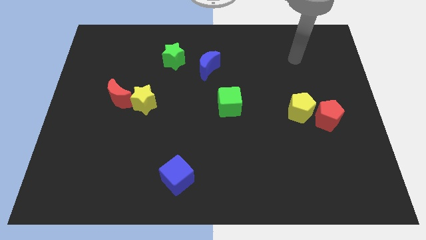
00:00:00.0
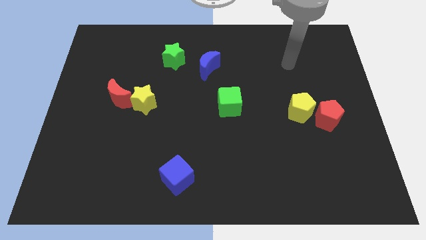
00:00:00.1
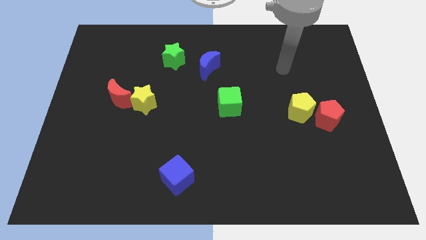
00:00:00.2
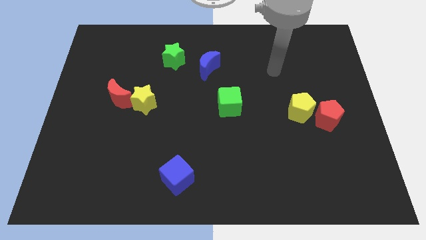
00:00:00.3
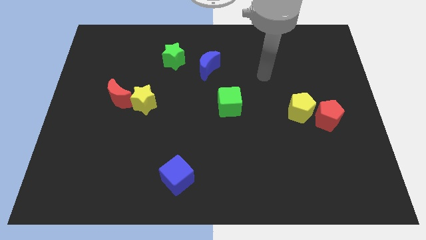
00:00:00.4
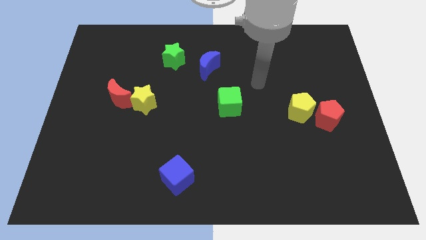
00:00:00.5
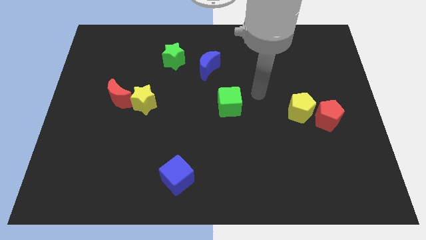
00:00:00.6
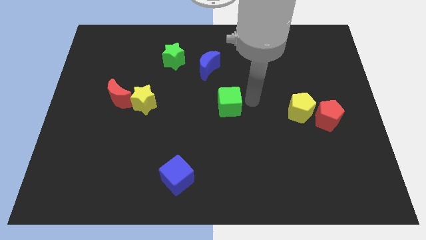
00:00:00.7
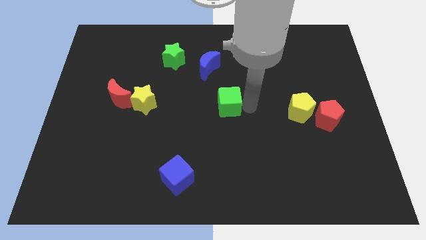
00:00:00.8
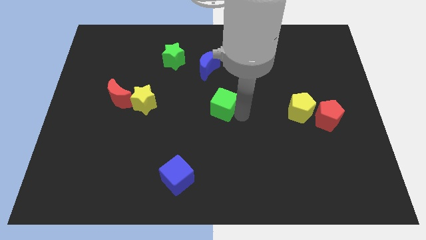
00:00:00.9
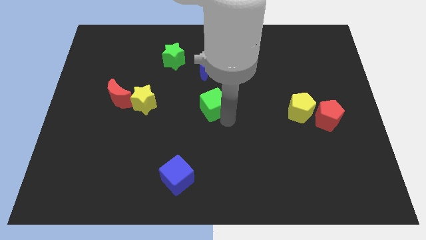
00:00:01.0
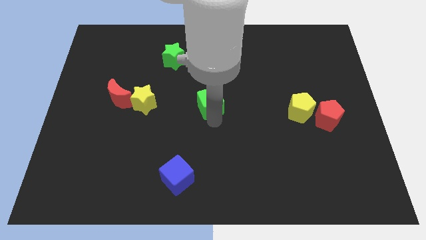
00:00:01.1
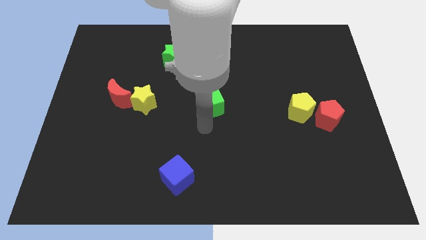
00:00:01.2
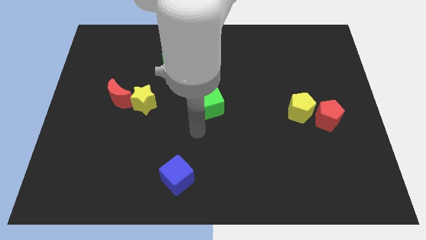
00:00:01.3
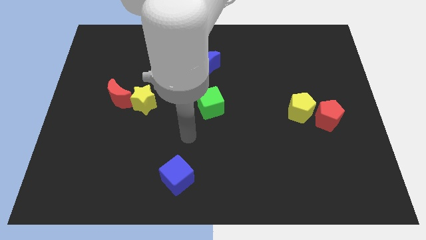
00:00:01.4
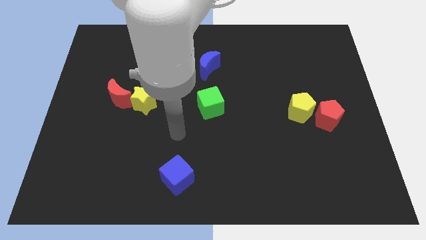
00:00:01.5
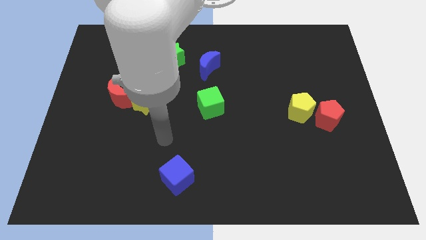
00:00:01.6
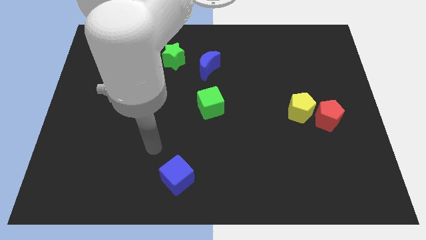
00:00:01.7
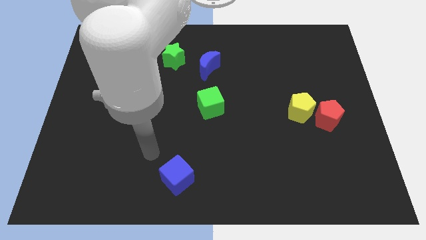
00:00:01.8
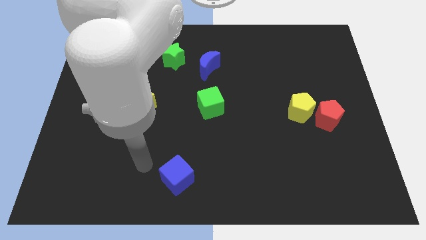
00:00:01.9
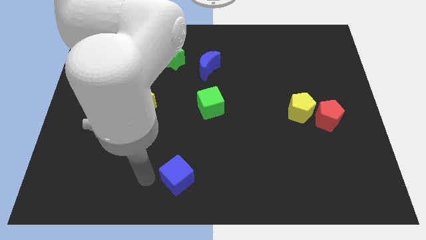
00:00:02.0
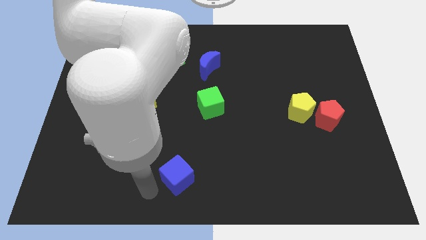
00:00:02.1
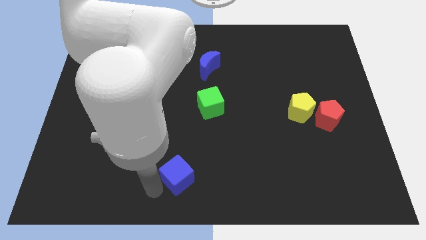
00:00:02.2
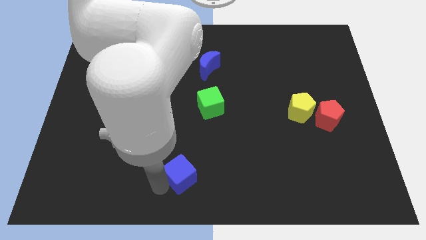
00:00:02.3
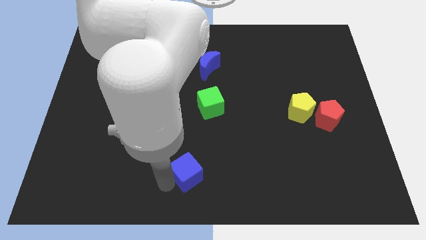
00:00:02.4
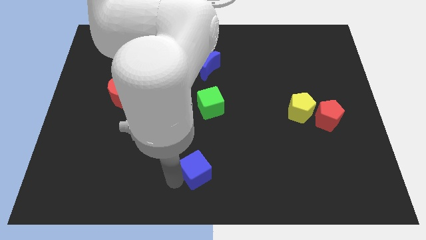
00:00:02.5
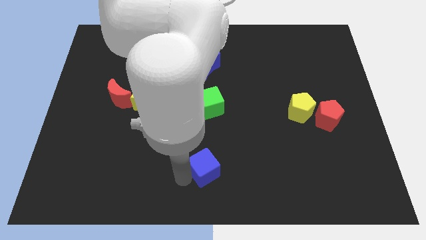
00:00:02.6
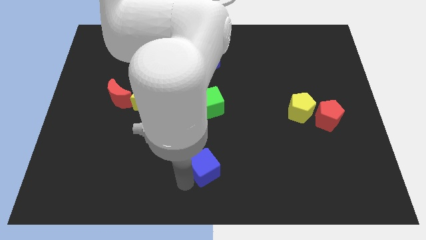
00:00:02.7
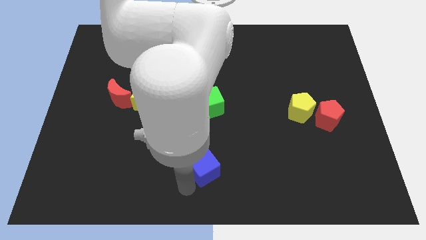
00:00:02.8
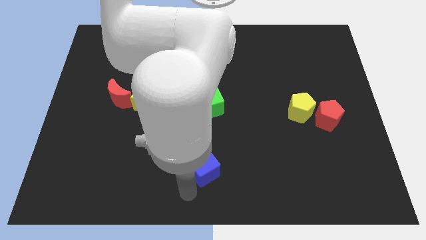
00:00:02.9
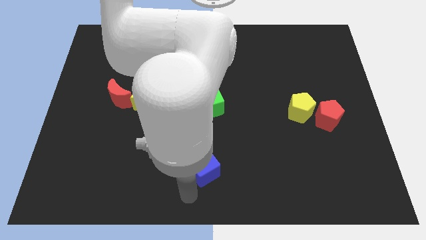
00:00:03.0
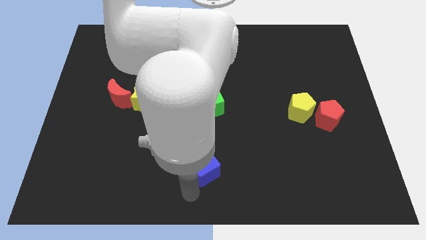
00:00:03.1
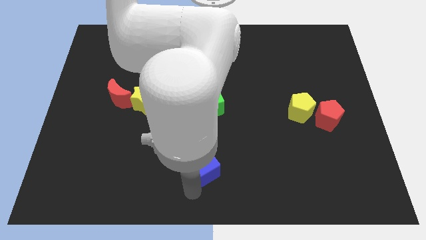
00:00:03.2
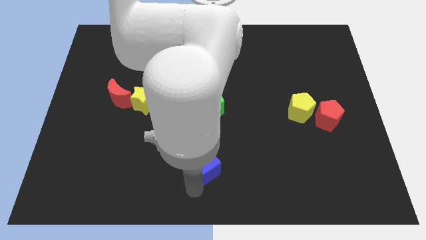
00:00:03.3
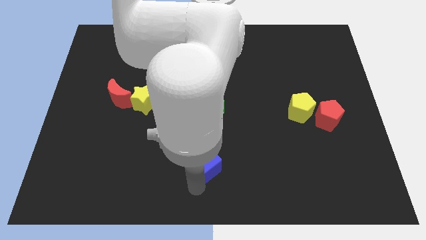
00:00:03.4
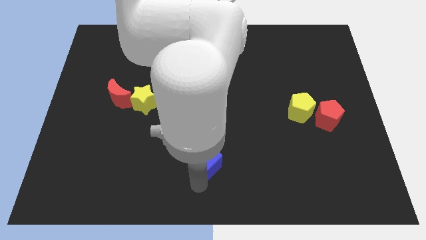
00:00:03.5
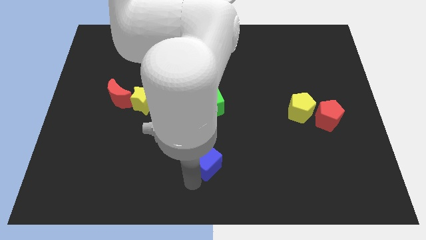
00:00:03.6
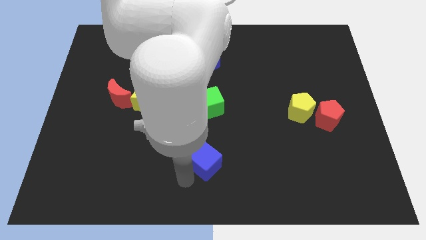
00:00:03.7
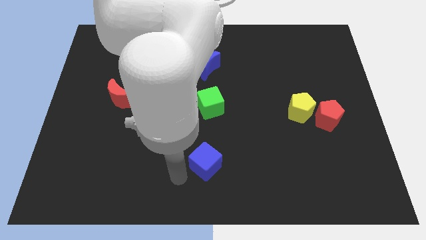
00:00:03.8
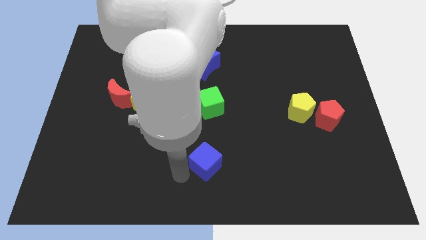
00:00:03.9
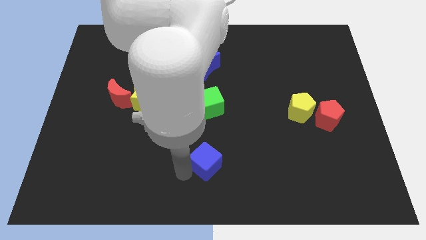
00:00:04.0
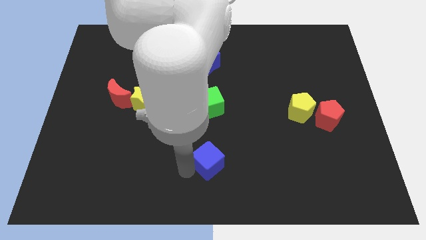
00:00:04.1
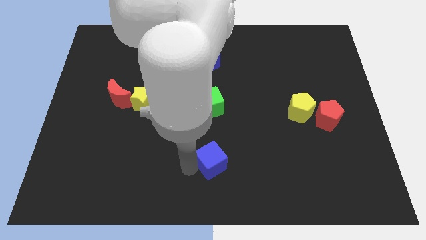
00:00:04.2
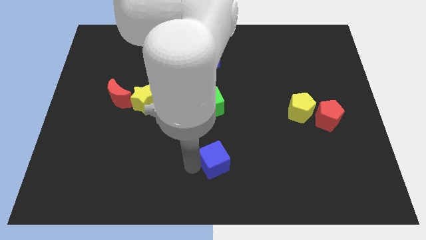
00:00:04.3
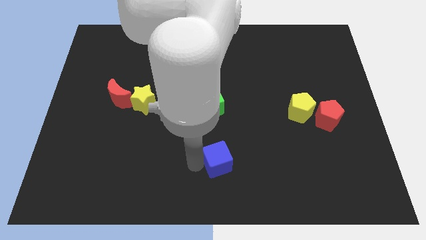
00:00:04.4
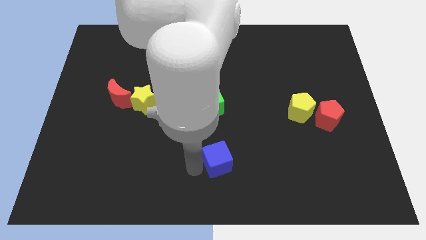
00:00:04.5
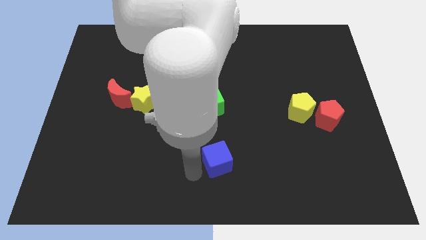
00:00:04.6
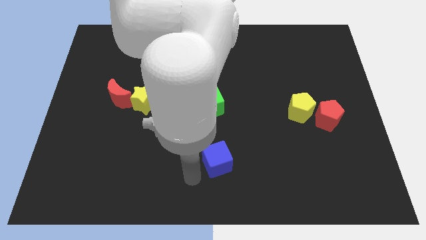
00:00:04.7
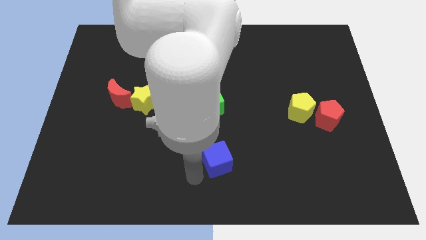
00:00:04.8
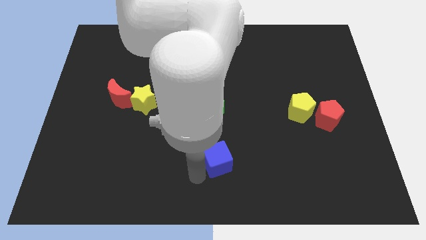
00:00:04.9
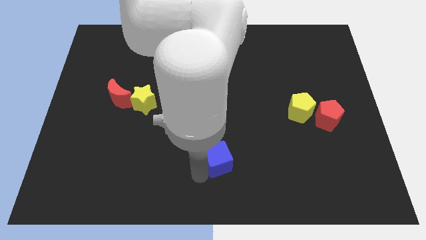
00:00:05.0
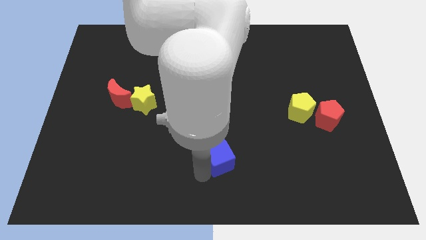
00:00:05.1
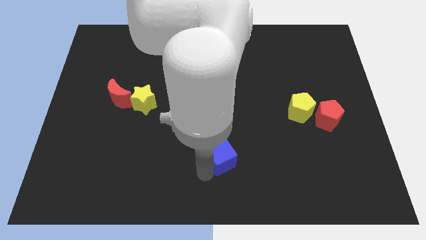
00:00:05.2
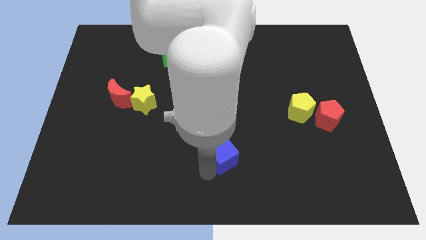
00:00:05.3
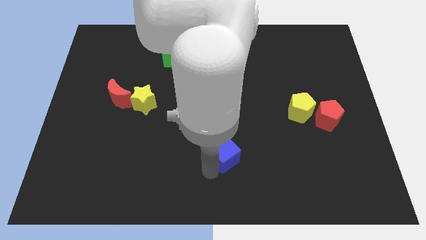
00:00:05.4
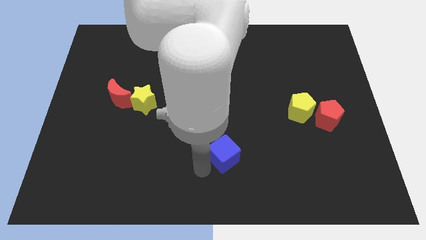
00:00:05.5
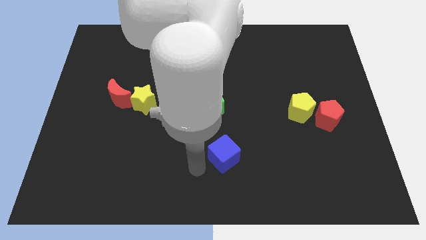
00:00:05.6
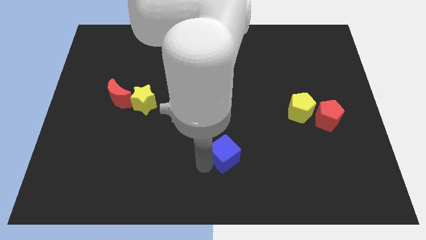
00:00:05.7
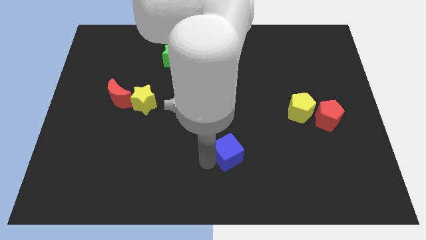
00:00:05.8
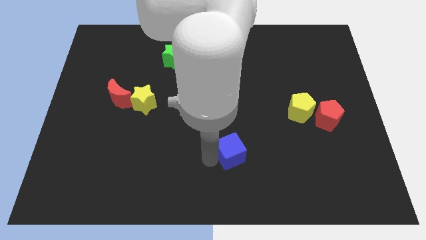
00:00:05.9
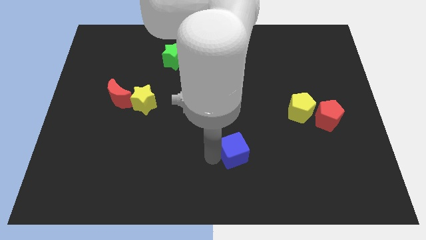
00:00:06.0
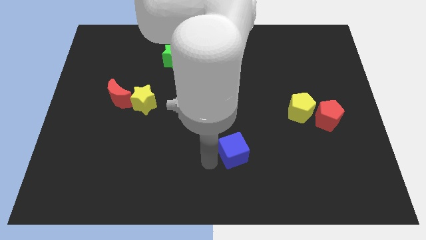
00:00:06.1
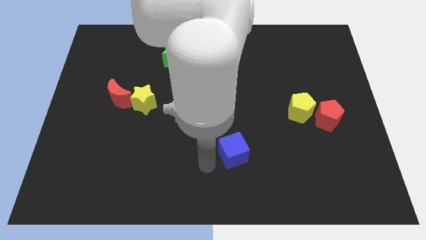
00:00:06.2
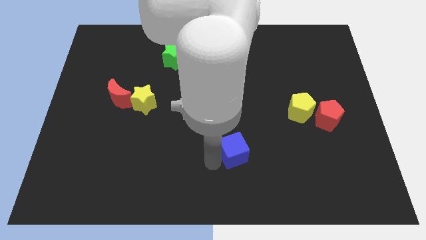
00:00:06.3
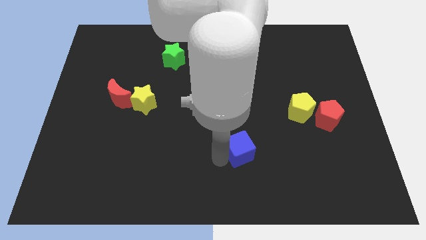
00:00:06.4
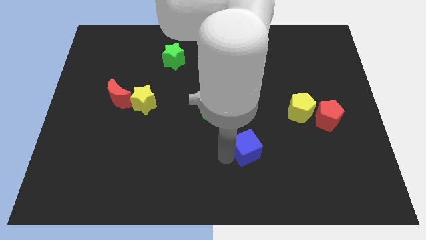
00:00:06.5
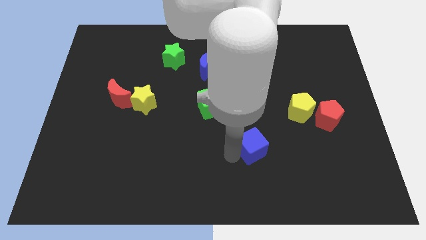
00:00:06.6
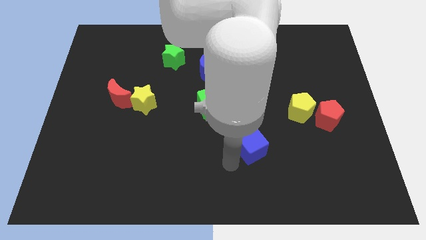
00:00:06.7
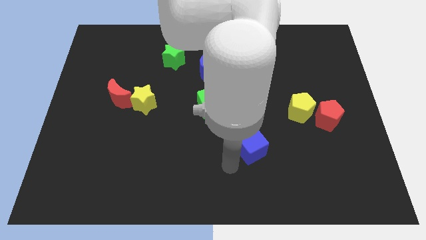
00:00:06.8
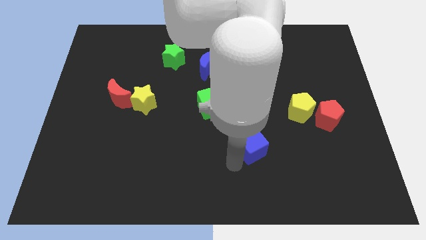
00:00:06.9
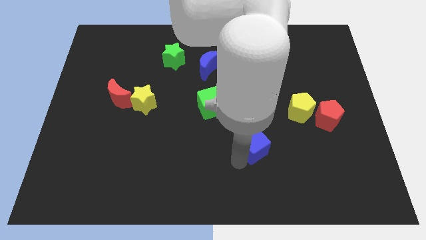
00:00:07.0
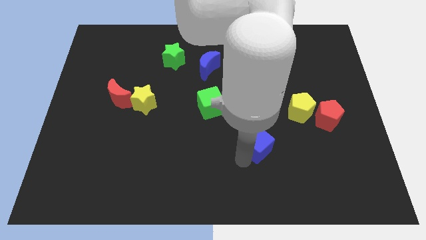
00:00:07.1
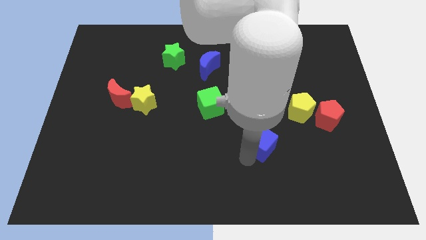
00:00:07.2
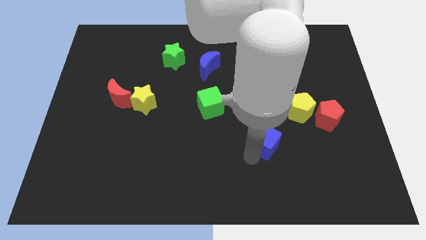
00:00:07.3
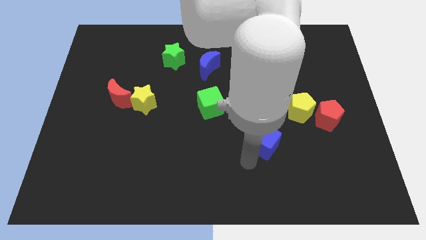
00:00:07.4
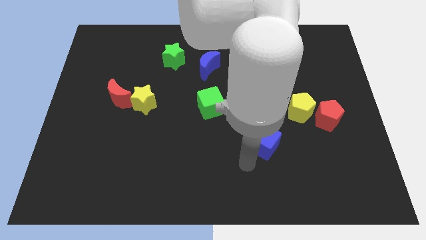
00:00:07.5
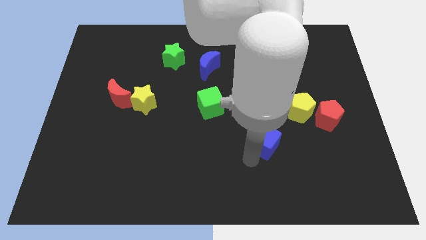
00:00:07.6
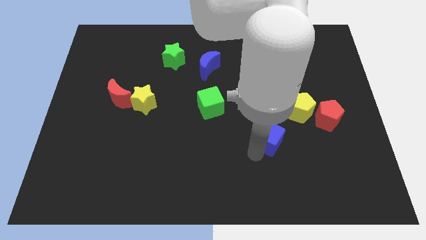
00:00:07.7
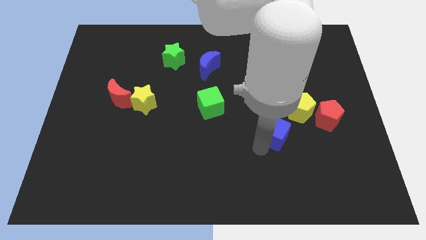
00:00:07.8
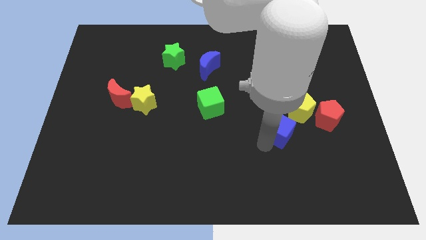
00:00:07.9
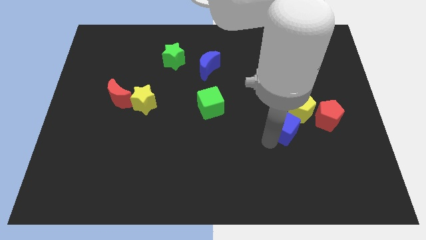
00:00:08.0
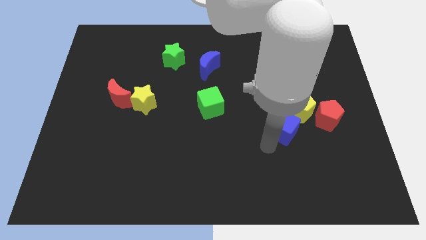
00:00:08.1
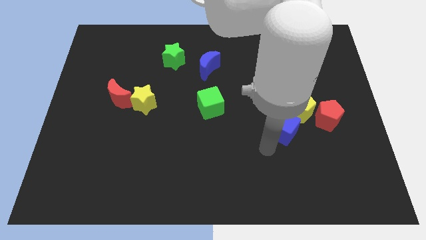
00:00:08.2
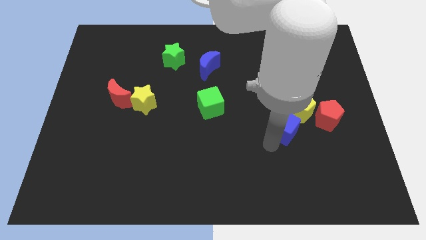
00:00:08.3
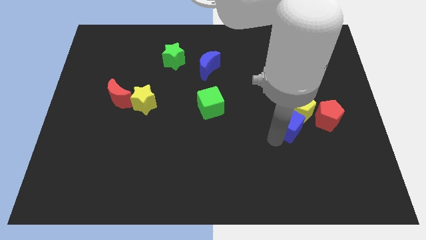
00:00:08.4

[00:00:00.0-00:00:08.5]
push the blue cube towards the yellow pentagon
